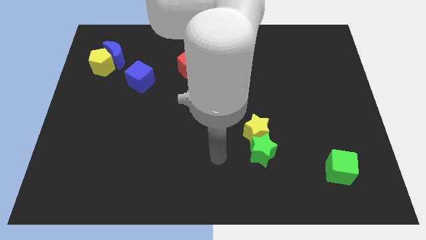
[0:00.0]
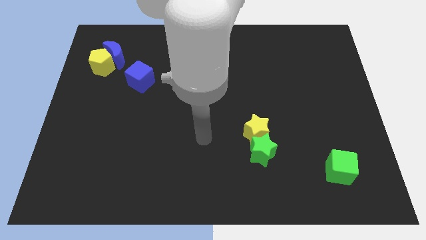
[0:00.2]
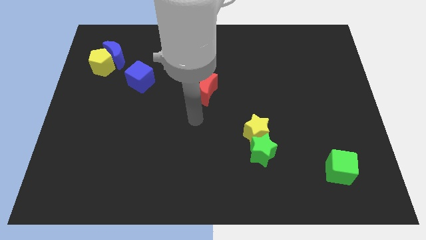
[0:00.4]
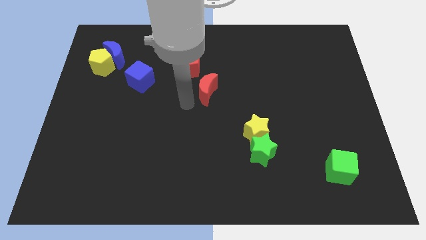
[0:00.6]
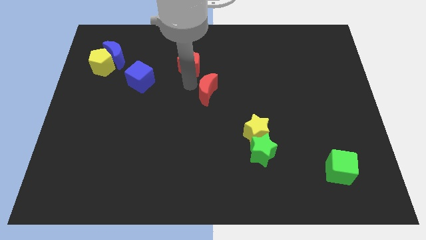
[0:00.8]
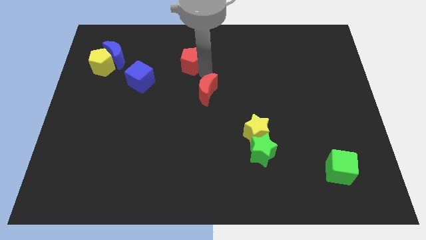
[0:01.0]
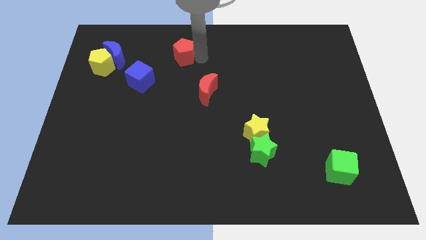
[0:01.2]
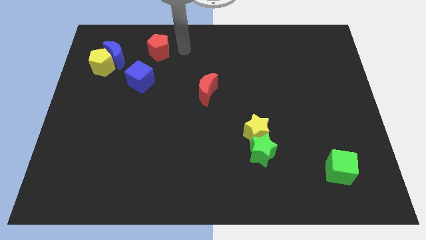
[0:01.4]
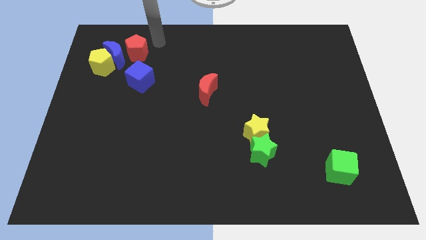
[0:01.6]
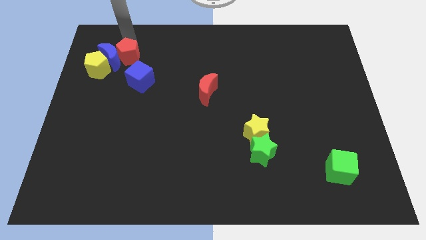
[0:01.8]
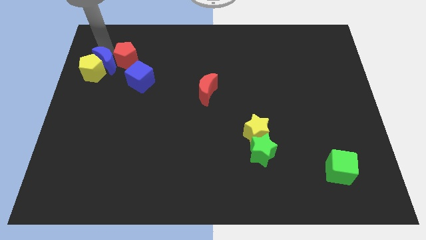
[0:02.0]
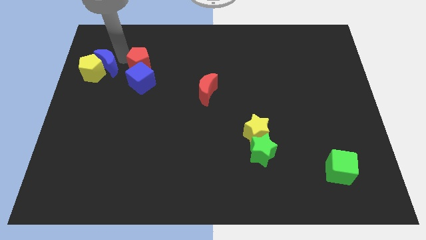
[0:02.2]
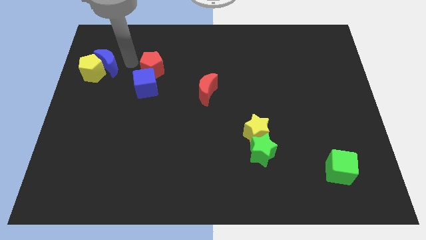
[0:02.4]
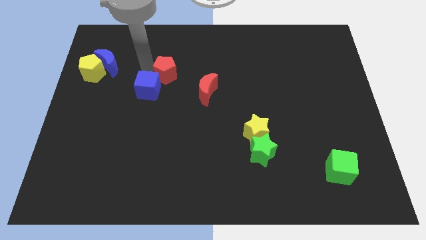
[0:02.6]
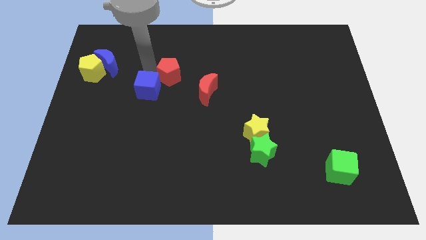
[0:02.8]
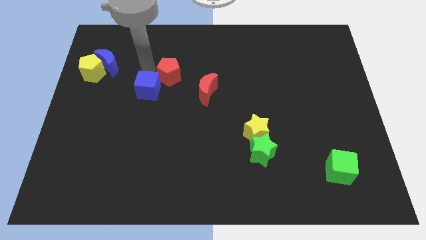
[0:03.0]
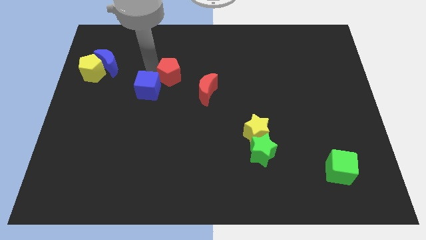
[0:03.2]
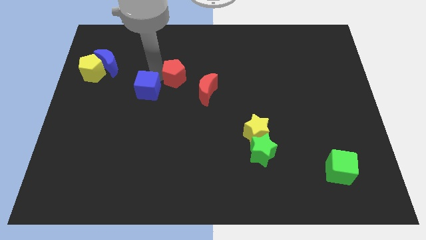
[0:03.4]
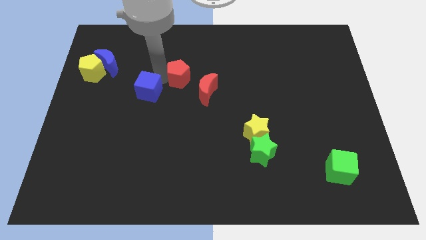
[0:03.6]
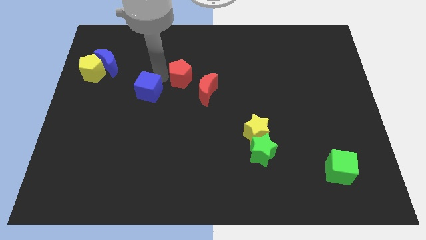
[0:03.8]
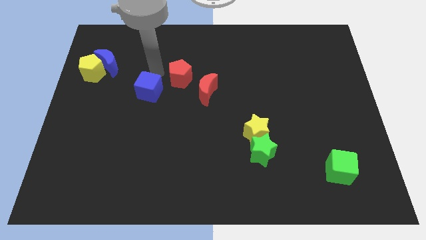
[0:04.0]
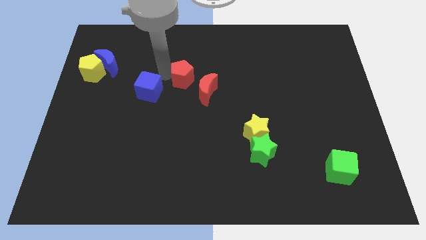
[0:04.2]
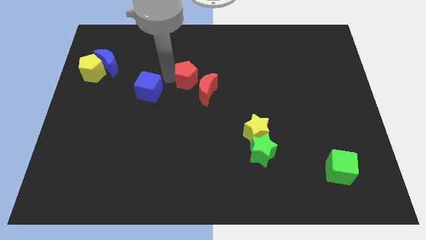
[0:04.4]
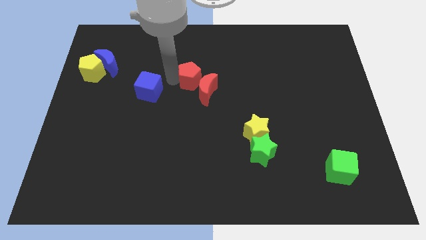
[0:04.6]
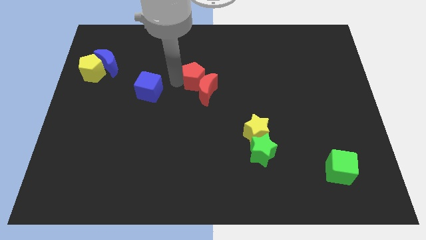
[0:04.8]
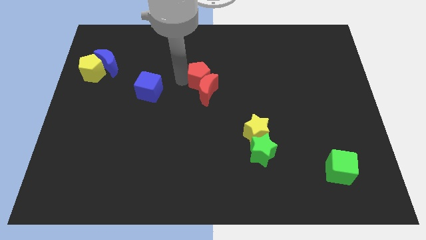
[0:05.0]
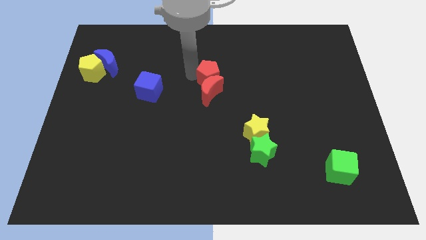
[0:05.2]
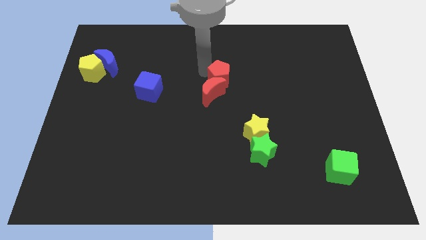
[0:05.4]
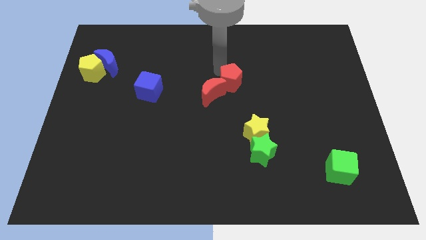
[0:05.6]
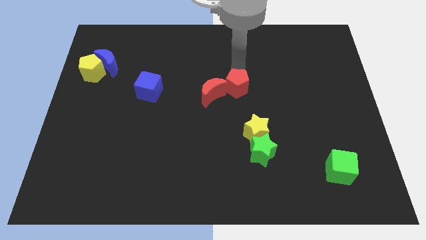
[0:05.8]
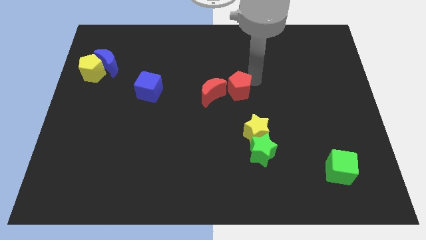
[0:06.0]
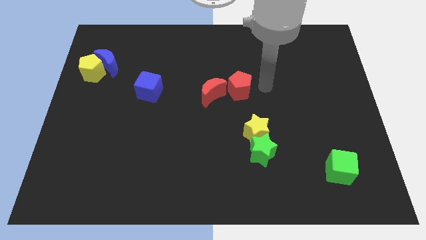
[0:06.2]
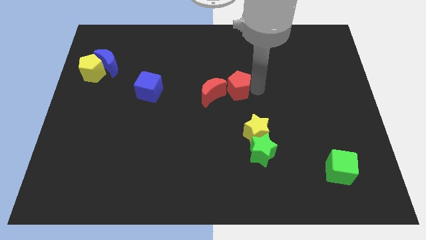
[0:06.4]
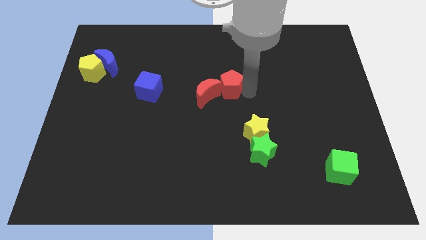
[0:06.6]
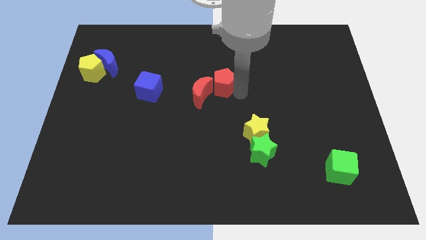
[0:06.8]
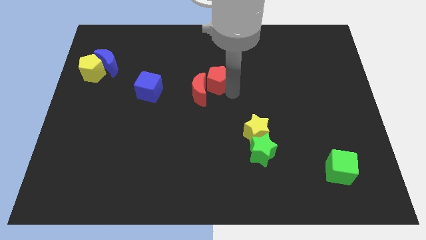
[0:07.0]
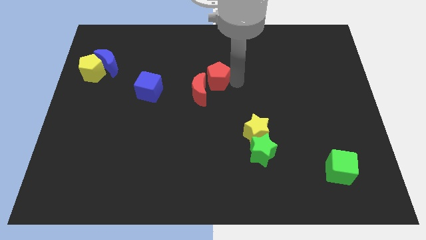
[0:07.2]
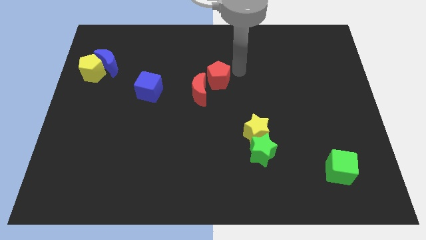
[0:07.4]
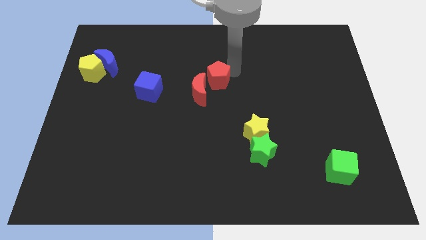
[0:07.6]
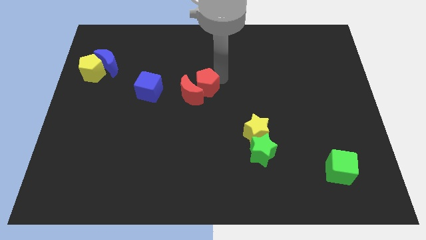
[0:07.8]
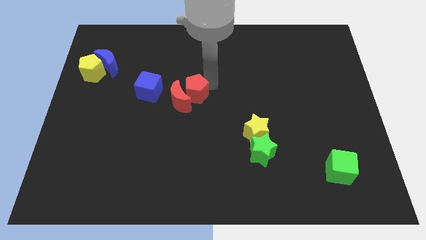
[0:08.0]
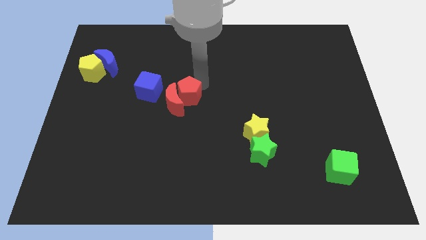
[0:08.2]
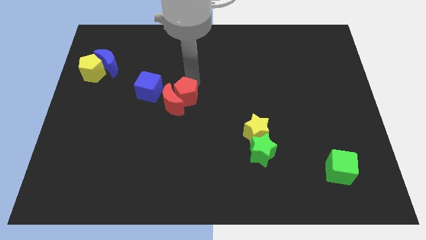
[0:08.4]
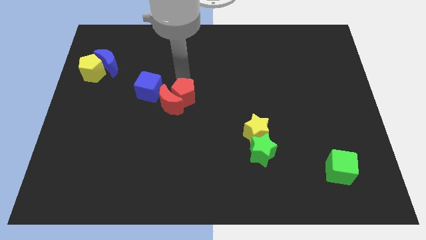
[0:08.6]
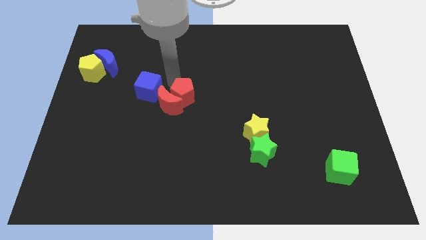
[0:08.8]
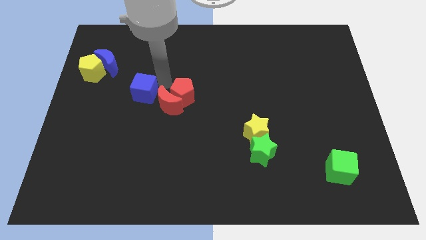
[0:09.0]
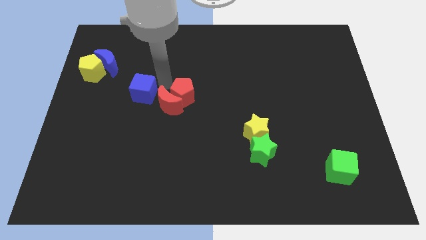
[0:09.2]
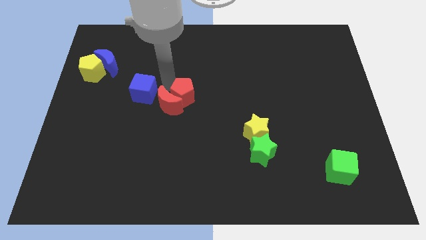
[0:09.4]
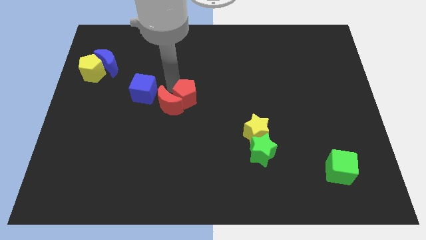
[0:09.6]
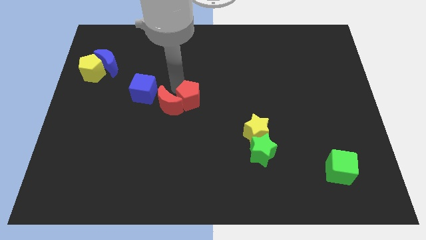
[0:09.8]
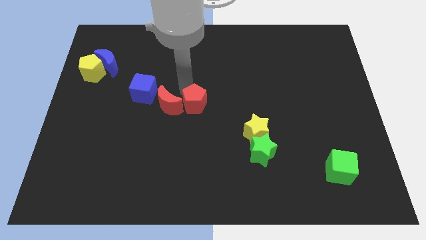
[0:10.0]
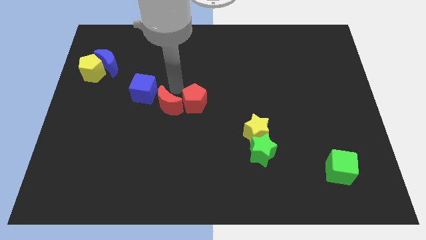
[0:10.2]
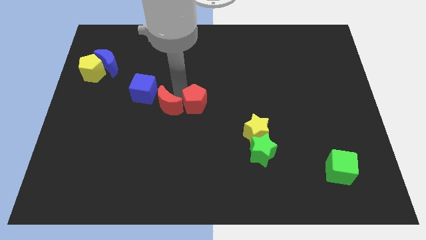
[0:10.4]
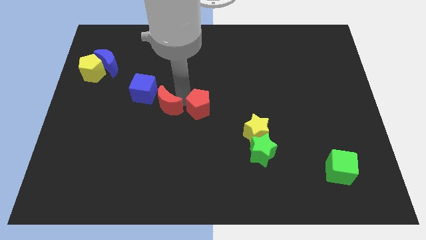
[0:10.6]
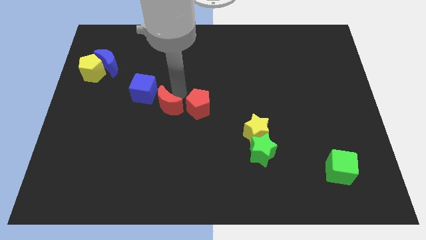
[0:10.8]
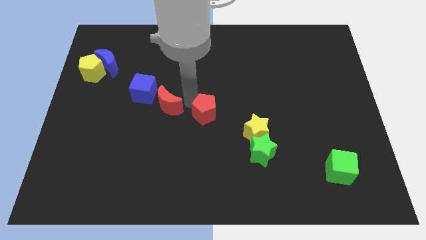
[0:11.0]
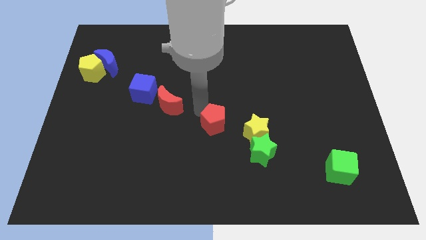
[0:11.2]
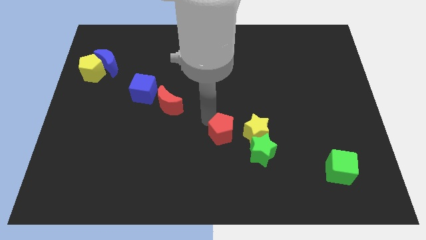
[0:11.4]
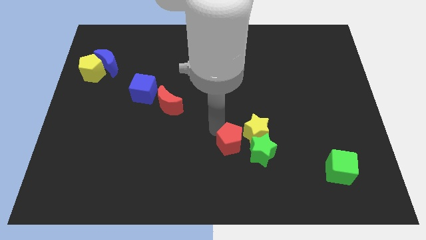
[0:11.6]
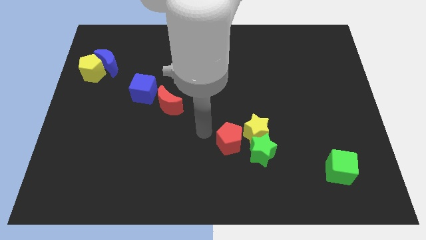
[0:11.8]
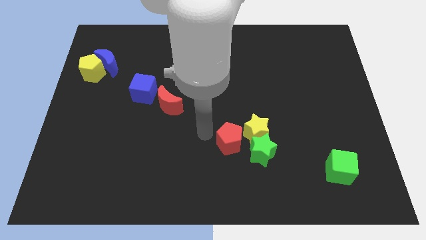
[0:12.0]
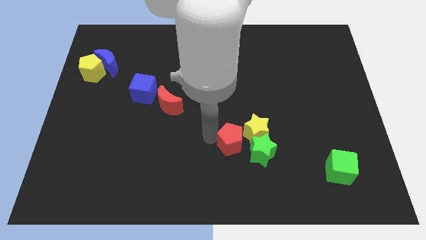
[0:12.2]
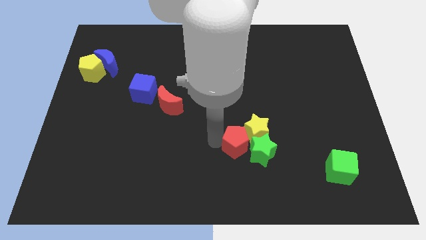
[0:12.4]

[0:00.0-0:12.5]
put the red pentagon to the green star
